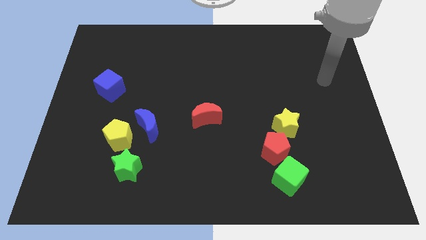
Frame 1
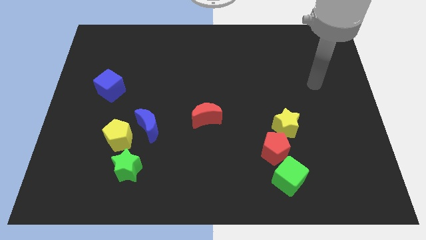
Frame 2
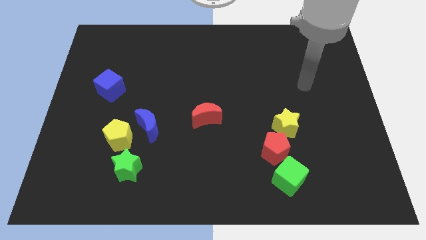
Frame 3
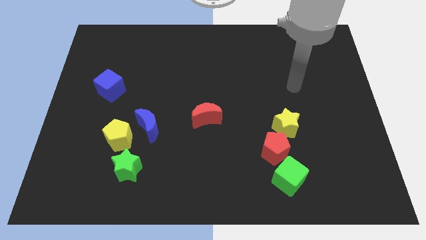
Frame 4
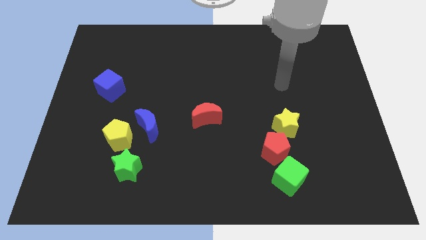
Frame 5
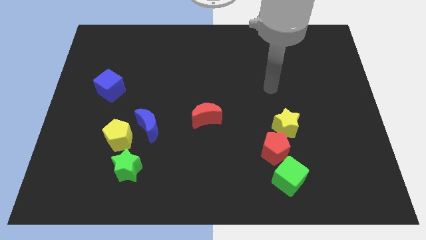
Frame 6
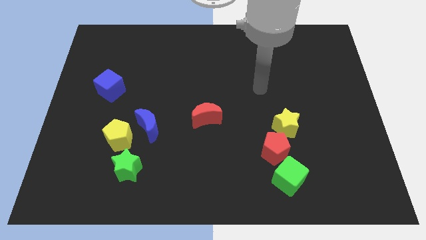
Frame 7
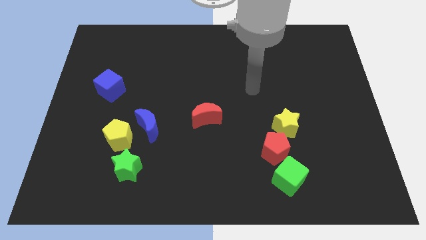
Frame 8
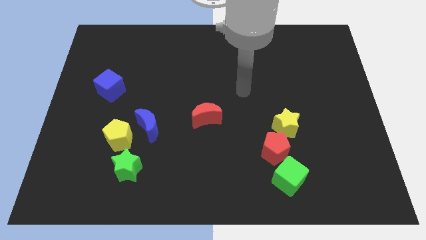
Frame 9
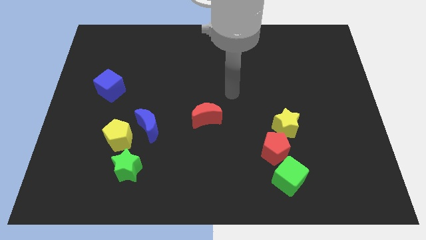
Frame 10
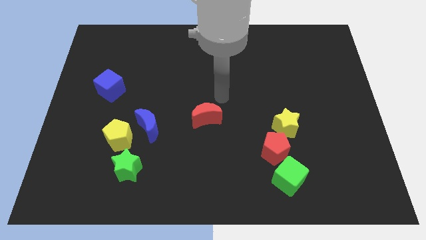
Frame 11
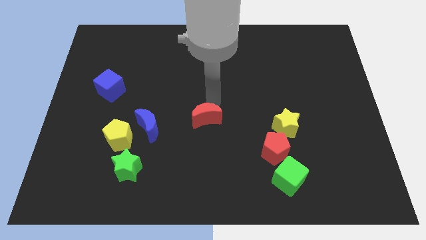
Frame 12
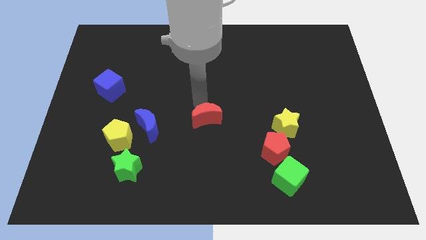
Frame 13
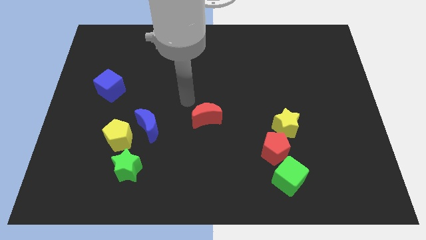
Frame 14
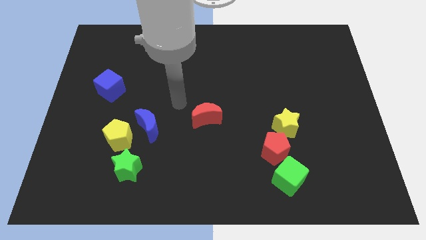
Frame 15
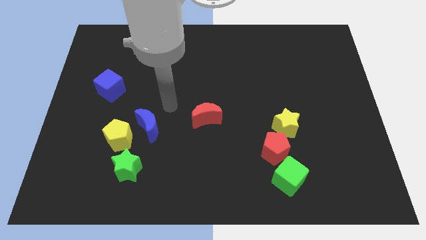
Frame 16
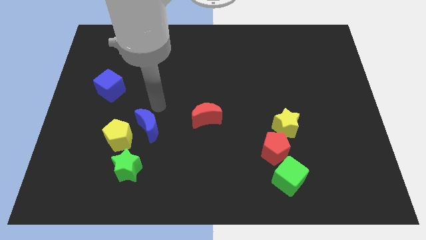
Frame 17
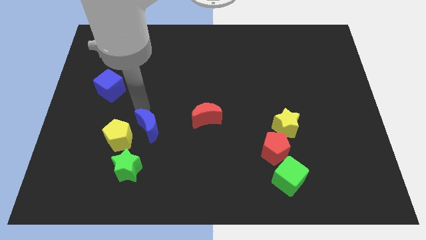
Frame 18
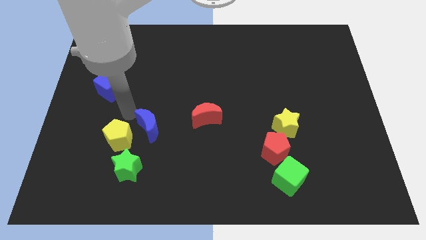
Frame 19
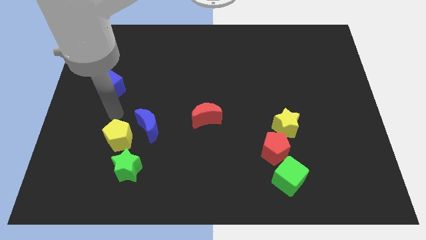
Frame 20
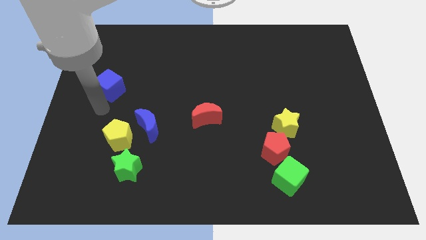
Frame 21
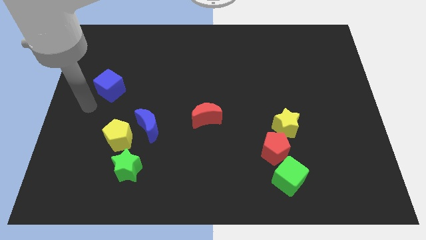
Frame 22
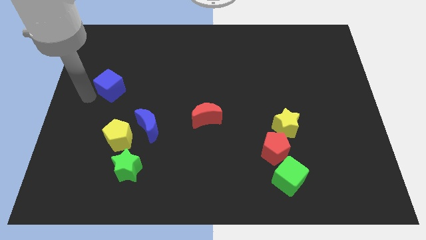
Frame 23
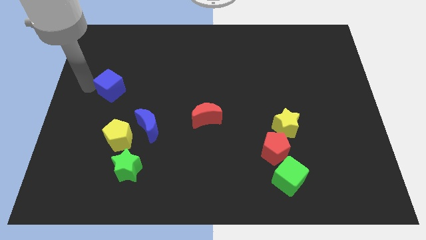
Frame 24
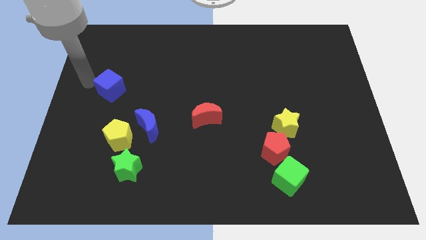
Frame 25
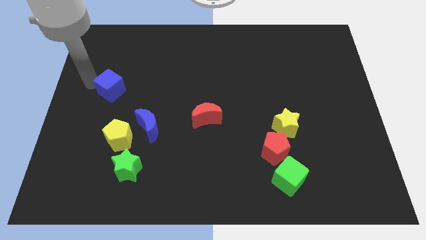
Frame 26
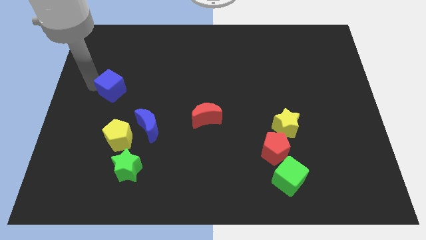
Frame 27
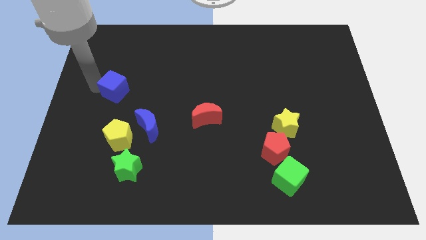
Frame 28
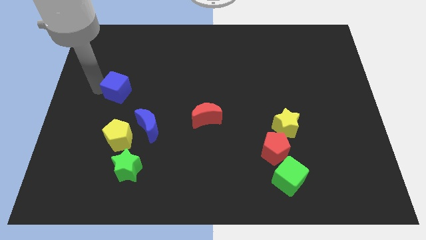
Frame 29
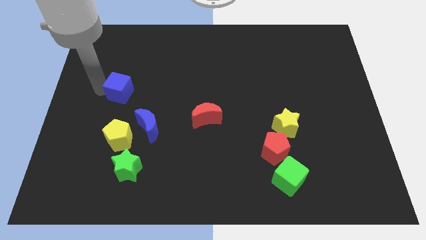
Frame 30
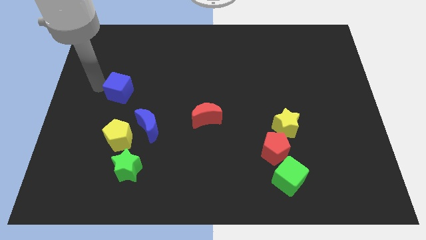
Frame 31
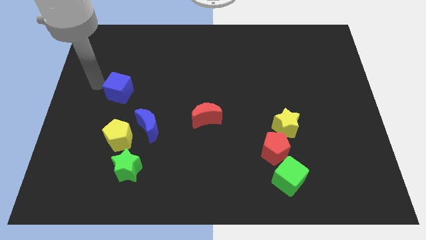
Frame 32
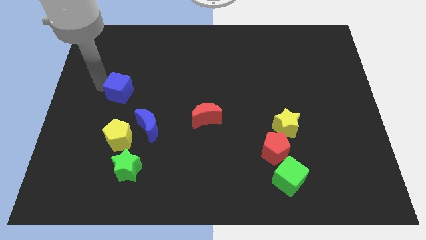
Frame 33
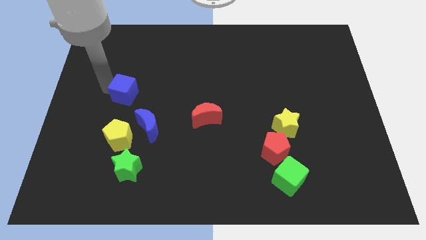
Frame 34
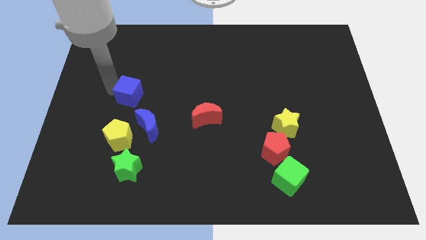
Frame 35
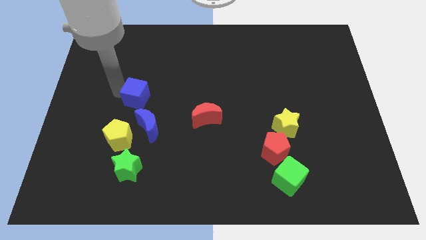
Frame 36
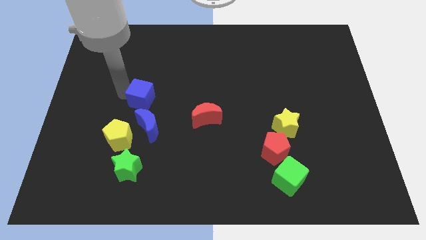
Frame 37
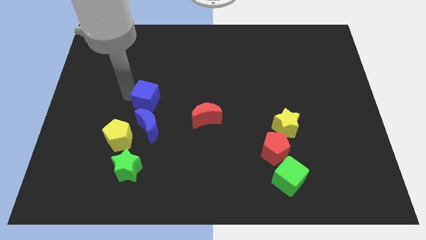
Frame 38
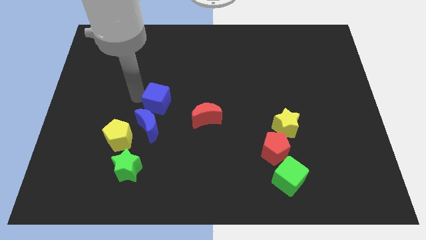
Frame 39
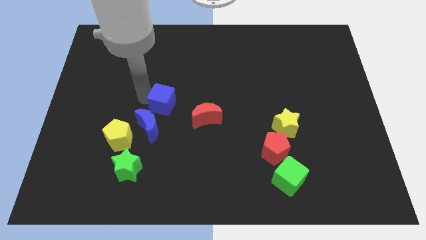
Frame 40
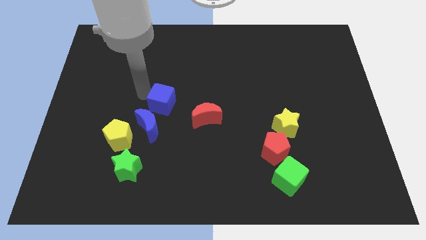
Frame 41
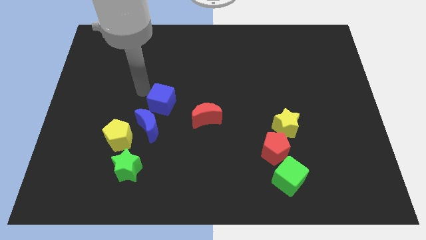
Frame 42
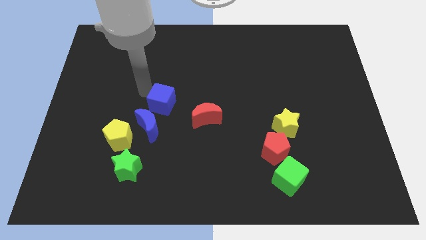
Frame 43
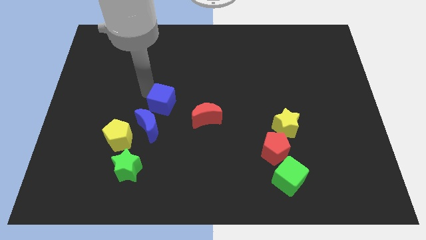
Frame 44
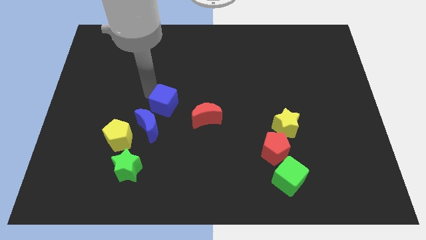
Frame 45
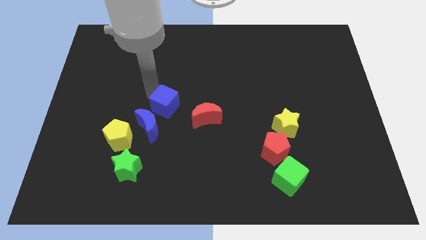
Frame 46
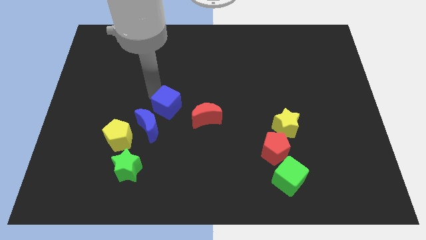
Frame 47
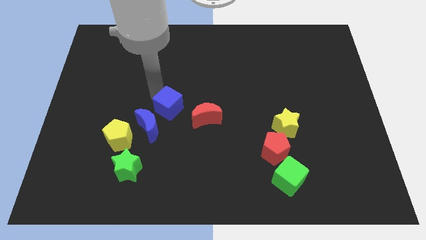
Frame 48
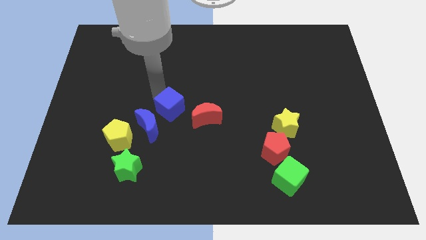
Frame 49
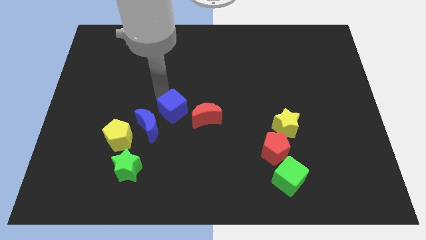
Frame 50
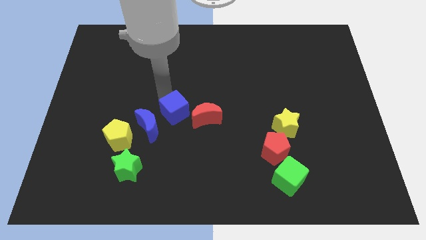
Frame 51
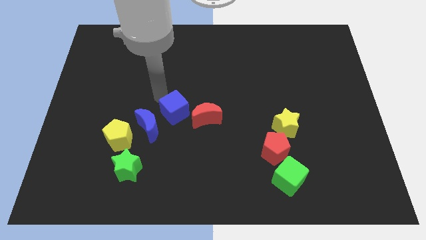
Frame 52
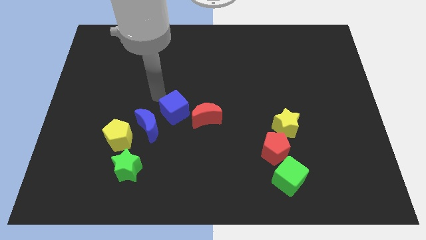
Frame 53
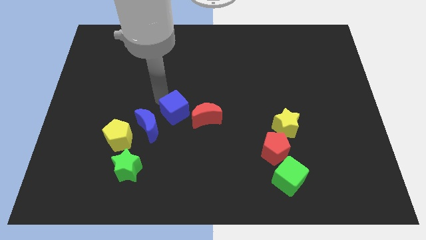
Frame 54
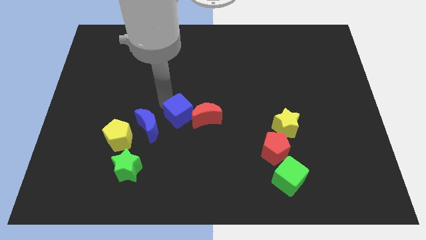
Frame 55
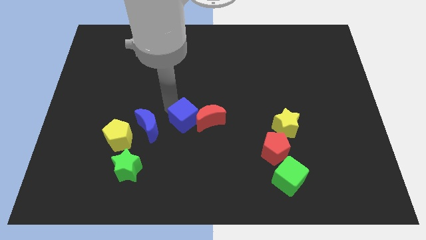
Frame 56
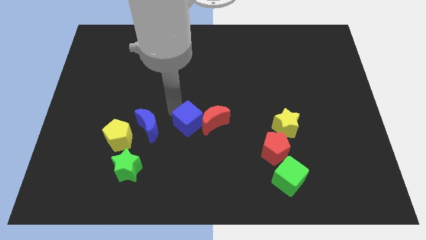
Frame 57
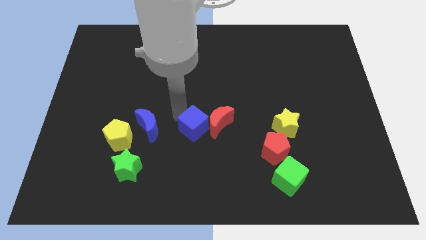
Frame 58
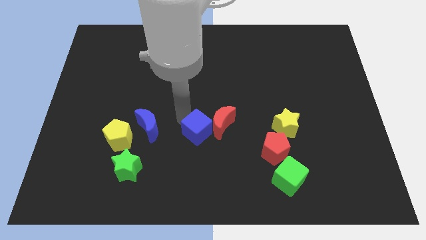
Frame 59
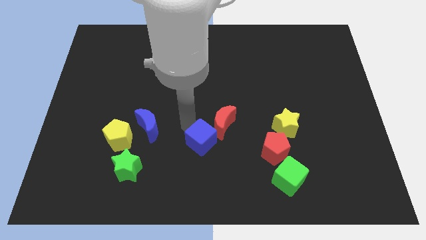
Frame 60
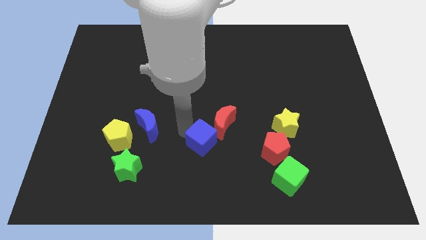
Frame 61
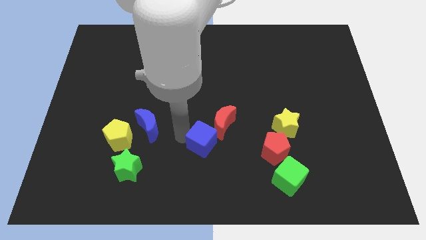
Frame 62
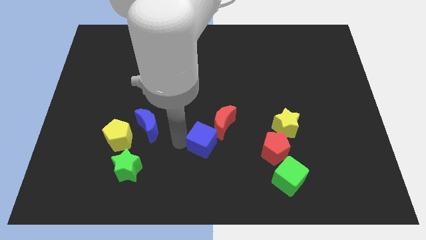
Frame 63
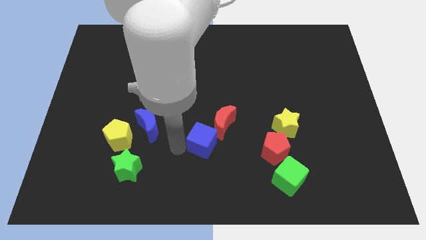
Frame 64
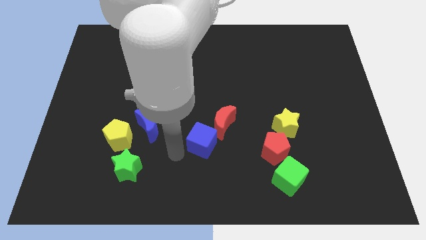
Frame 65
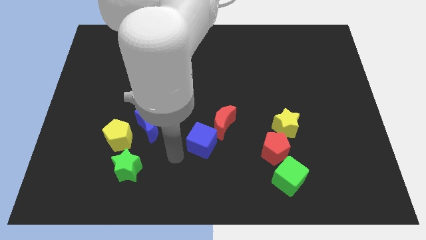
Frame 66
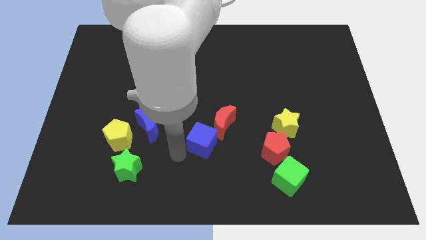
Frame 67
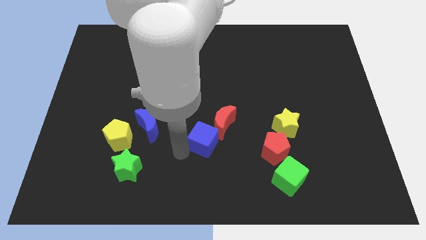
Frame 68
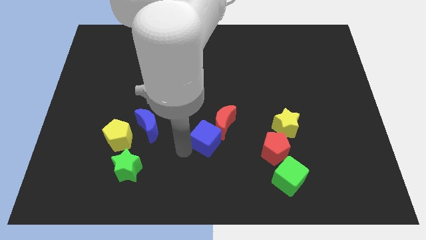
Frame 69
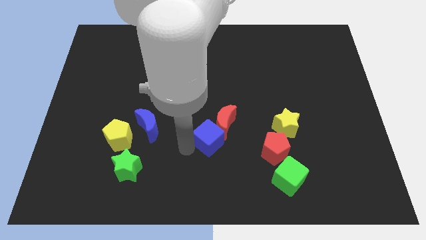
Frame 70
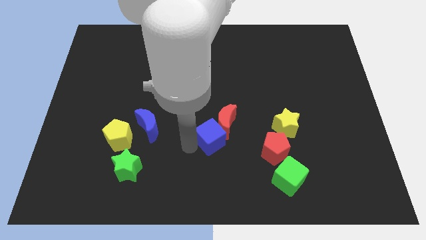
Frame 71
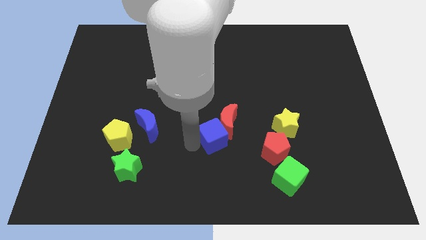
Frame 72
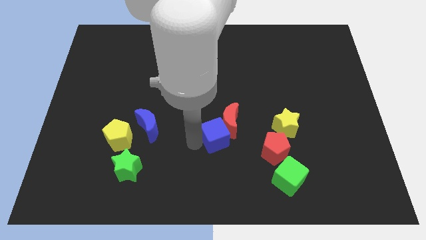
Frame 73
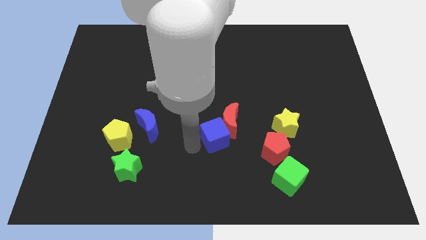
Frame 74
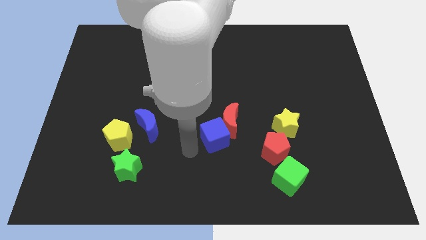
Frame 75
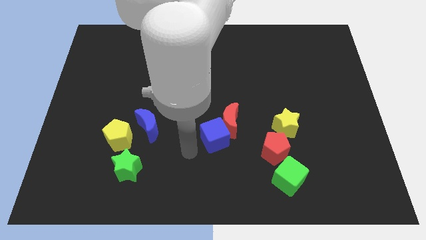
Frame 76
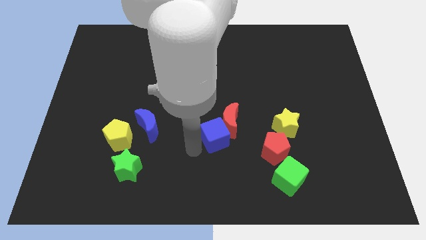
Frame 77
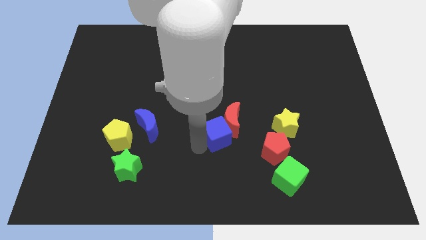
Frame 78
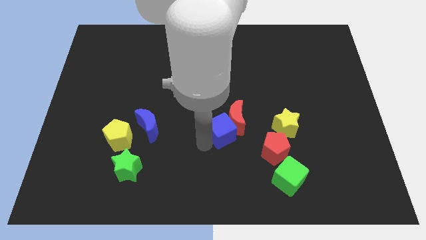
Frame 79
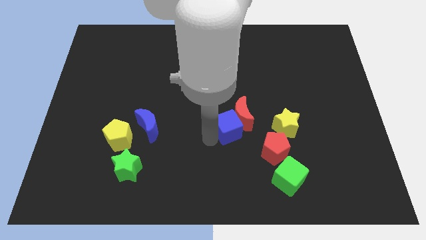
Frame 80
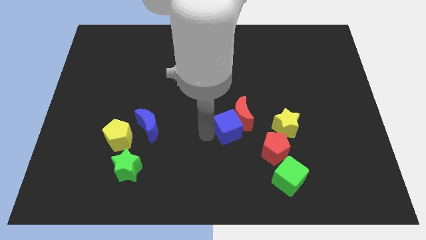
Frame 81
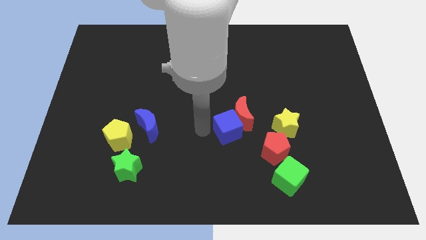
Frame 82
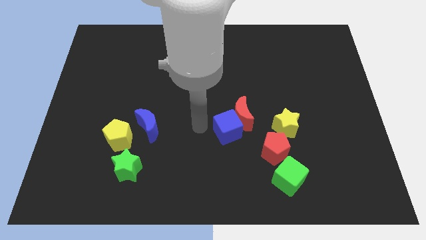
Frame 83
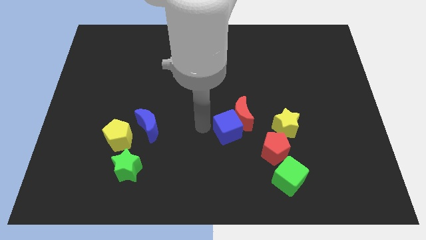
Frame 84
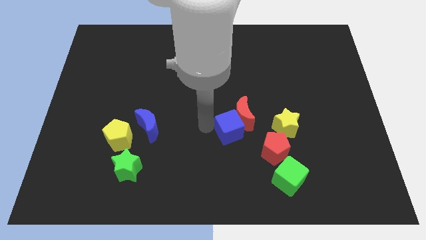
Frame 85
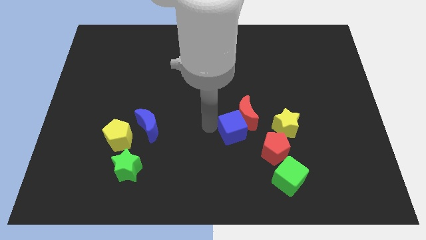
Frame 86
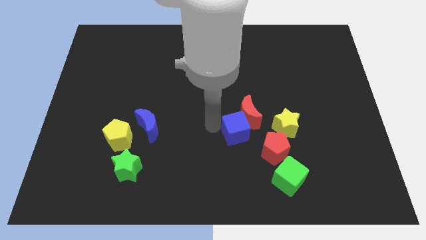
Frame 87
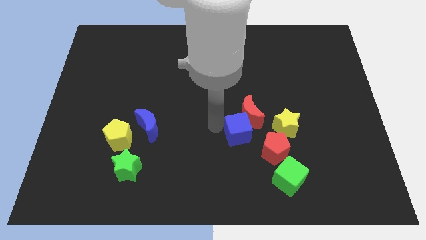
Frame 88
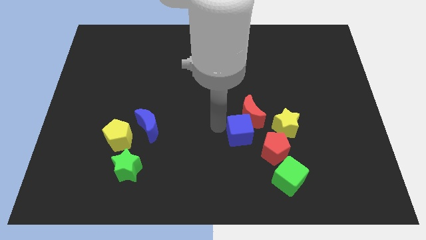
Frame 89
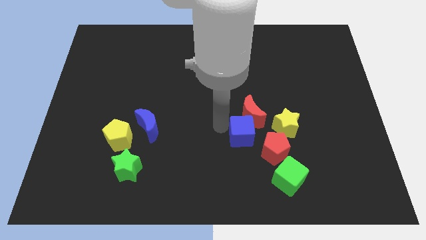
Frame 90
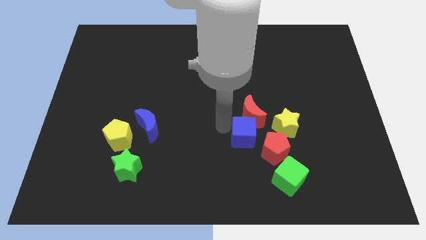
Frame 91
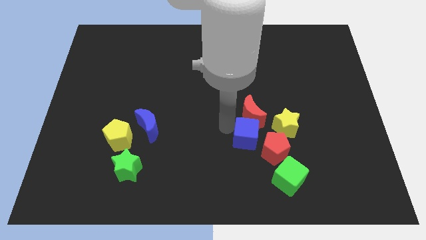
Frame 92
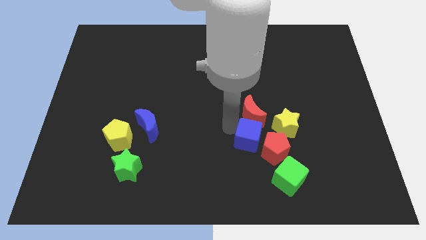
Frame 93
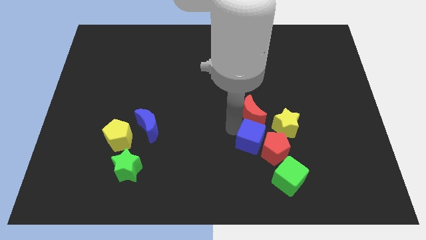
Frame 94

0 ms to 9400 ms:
push the blue cube towards the red pentagon
